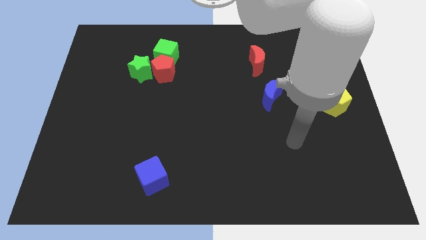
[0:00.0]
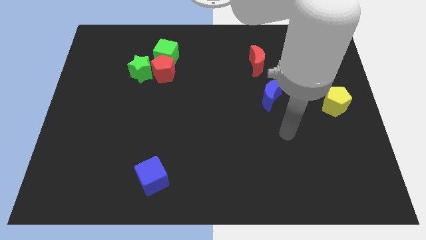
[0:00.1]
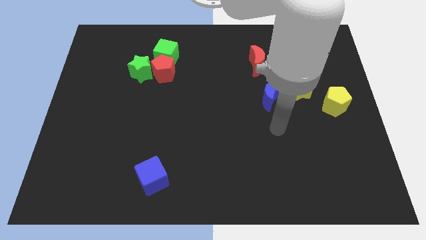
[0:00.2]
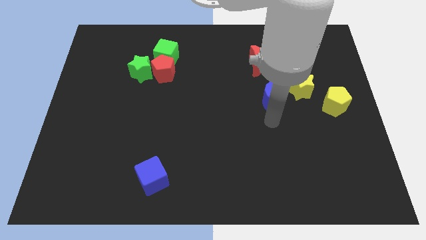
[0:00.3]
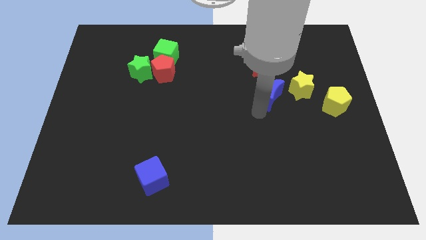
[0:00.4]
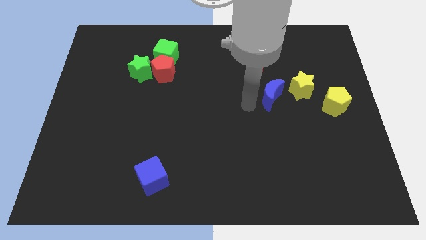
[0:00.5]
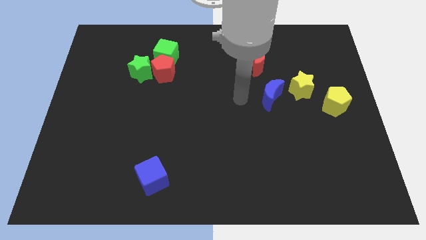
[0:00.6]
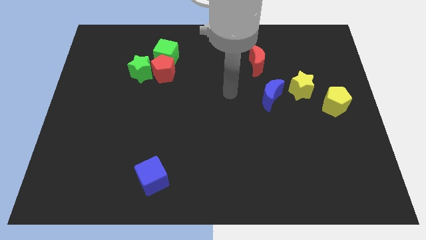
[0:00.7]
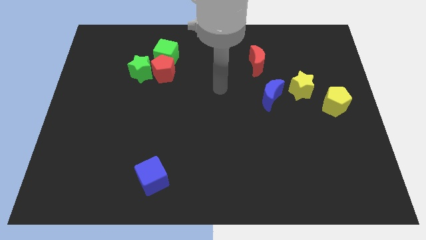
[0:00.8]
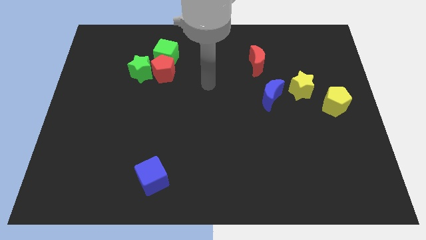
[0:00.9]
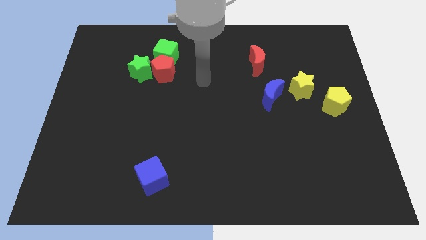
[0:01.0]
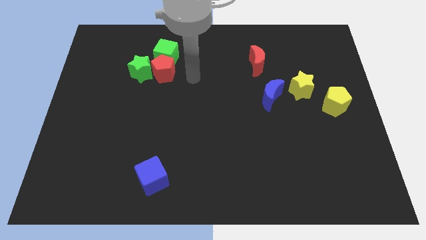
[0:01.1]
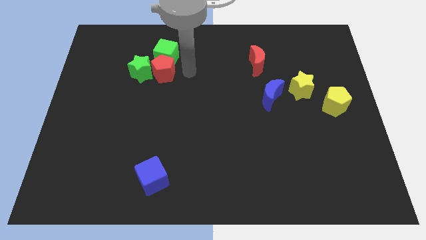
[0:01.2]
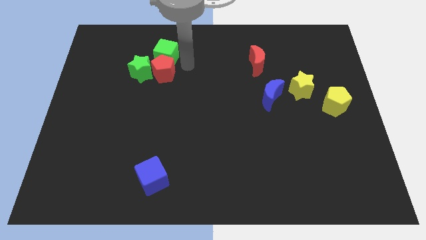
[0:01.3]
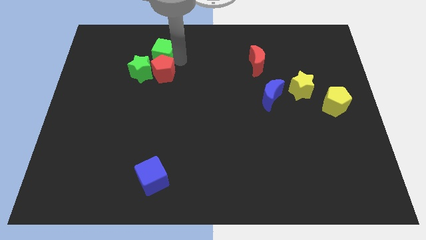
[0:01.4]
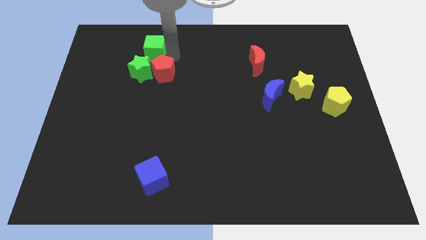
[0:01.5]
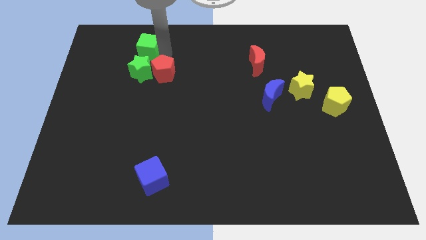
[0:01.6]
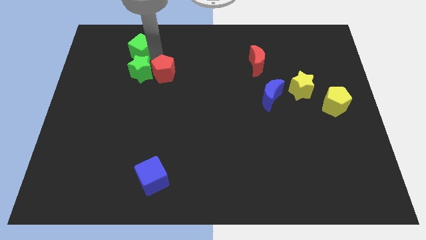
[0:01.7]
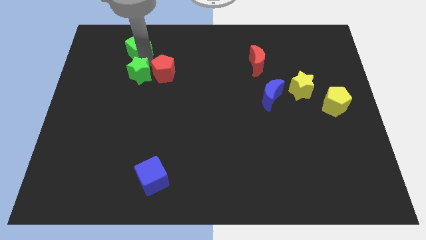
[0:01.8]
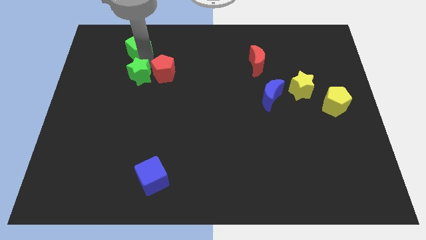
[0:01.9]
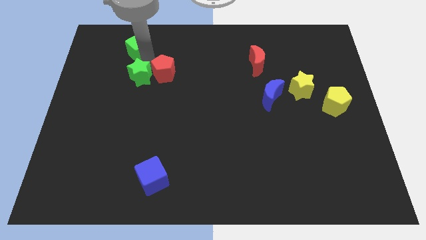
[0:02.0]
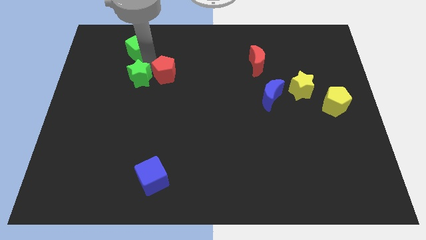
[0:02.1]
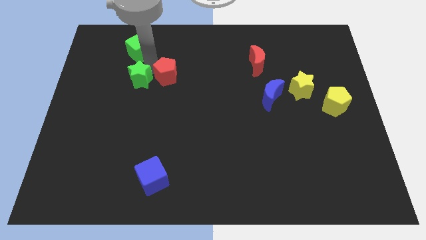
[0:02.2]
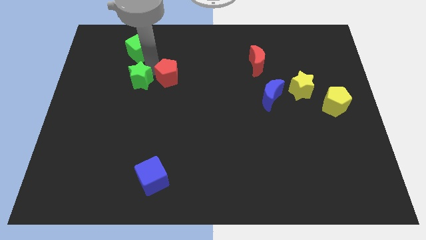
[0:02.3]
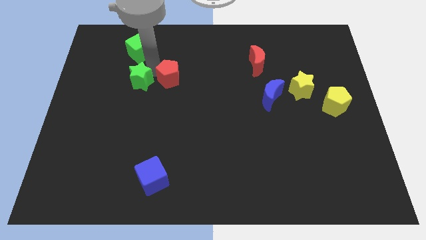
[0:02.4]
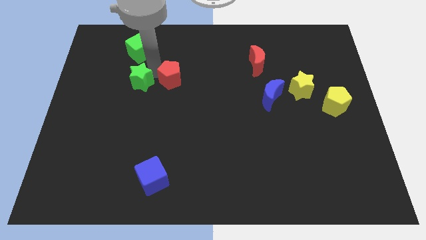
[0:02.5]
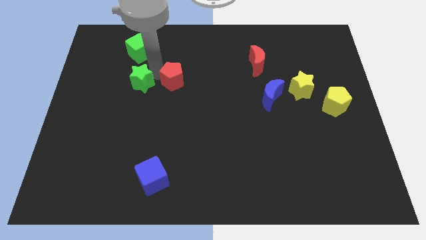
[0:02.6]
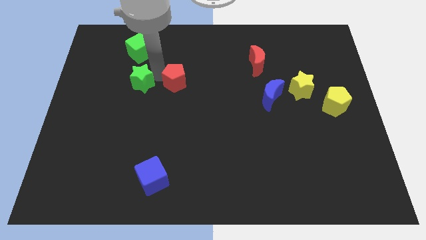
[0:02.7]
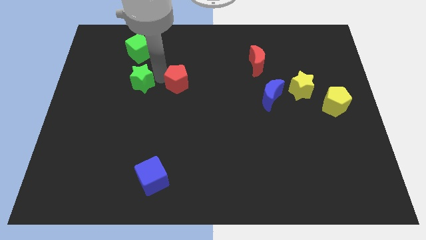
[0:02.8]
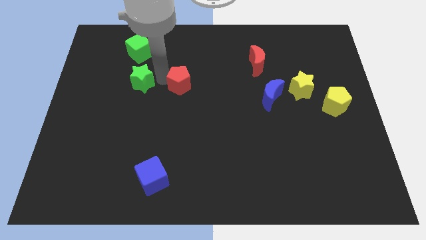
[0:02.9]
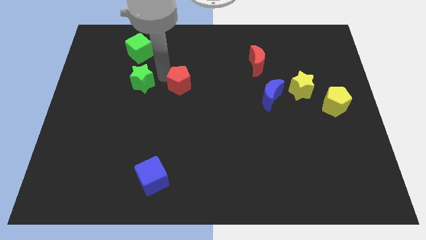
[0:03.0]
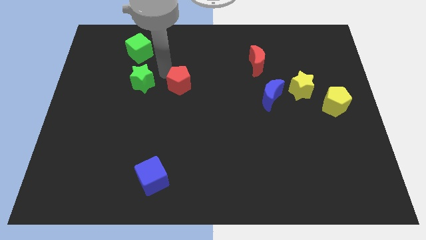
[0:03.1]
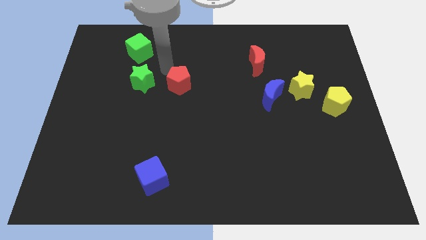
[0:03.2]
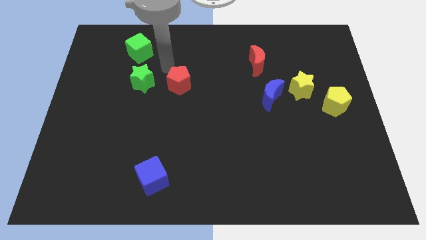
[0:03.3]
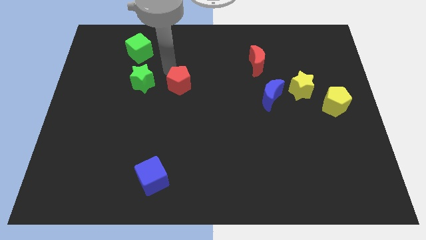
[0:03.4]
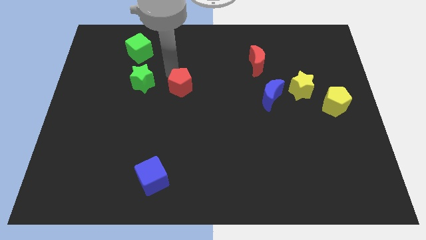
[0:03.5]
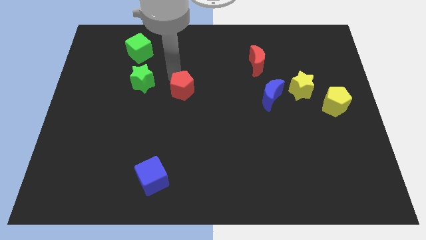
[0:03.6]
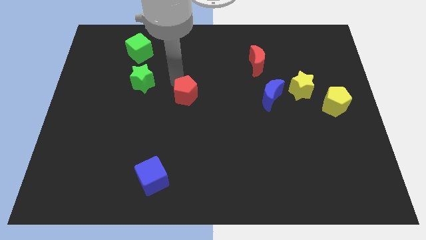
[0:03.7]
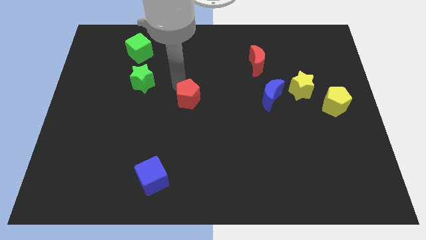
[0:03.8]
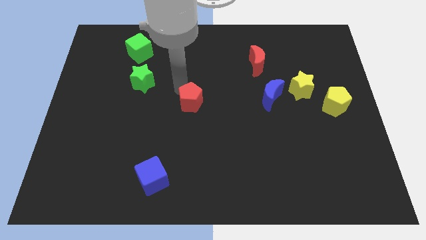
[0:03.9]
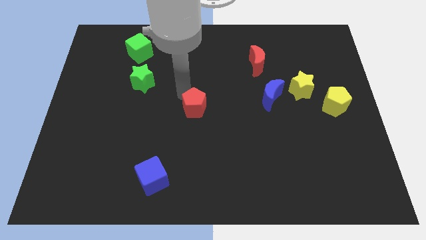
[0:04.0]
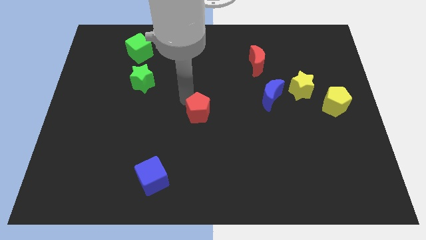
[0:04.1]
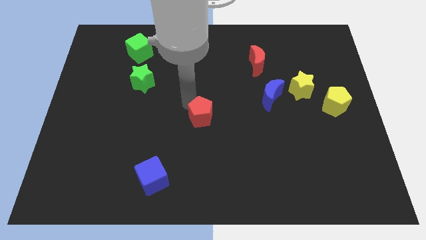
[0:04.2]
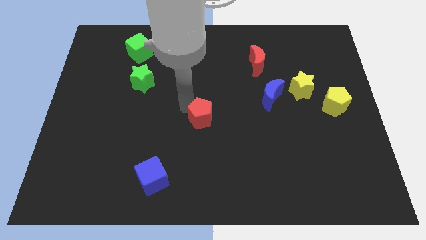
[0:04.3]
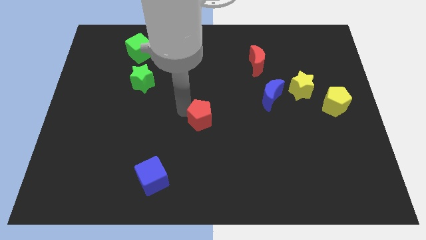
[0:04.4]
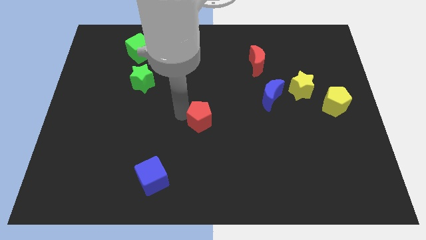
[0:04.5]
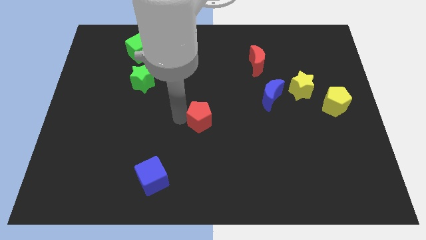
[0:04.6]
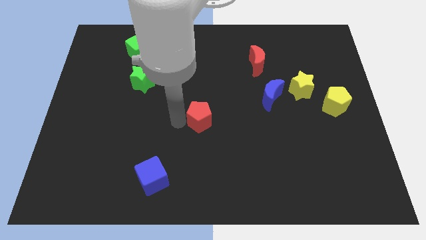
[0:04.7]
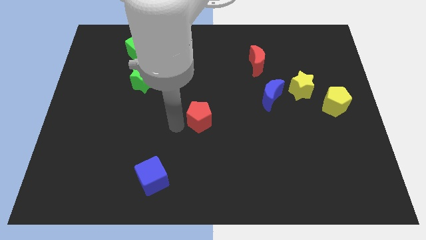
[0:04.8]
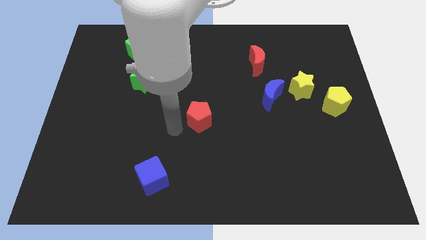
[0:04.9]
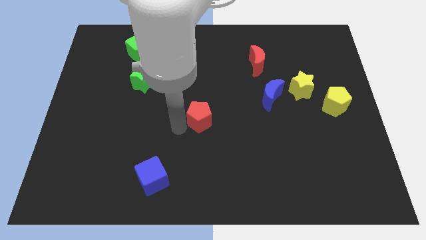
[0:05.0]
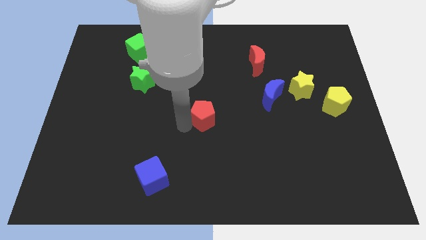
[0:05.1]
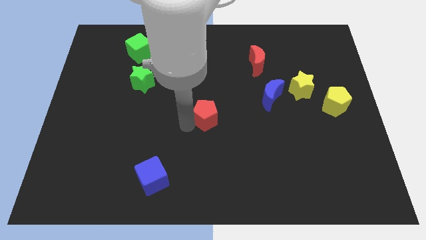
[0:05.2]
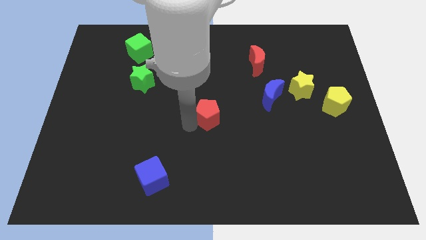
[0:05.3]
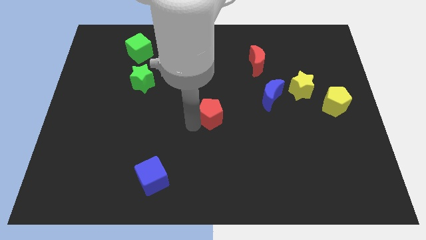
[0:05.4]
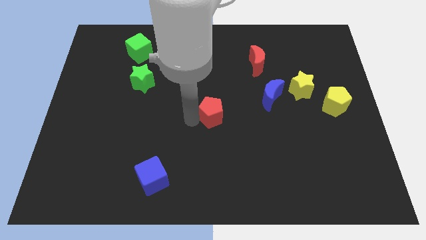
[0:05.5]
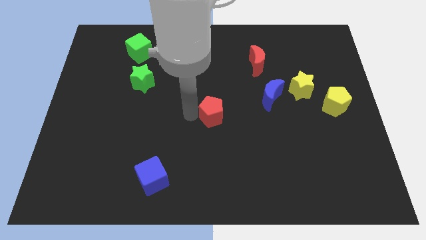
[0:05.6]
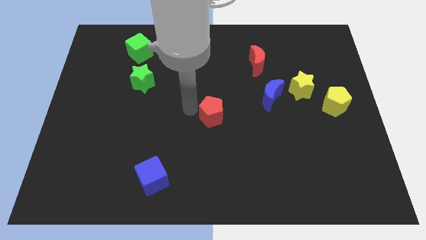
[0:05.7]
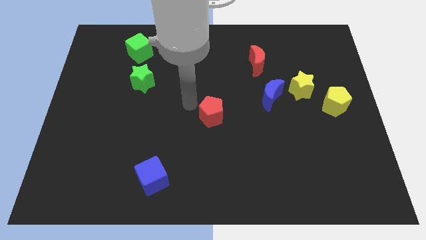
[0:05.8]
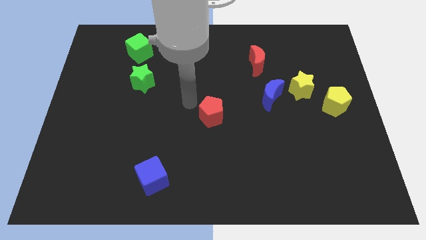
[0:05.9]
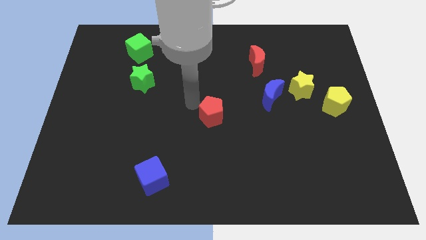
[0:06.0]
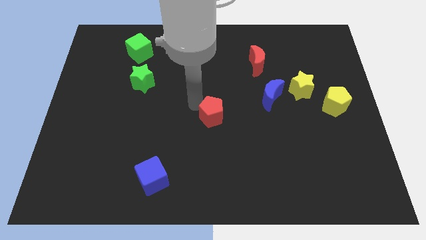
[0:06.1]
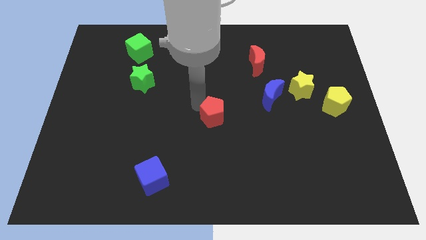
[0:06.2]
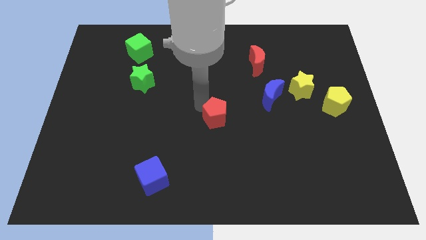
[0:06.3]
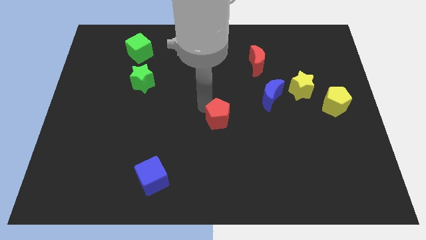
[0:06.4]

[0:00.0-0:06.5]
push the red pentagon downwards and then right

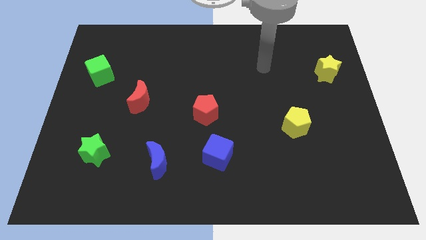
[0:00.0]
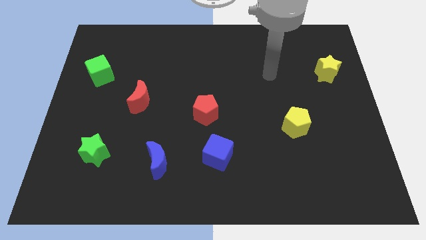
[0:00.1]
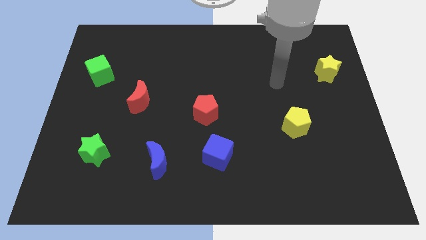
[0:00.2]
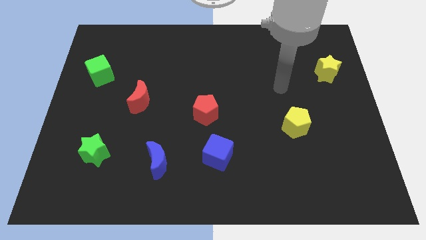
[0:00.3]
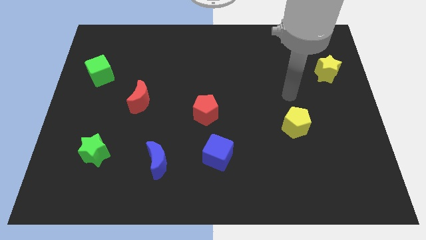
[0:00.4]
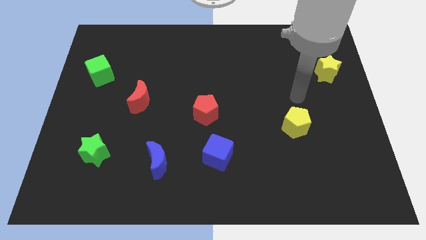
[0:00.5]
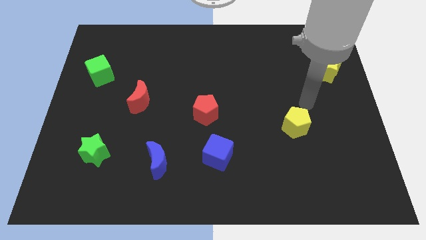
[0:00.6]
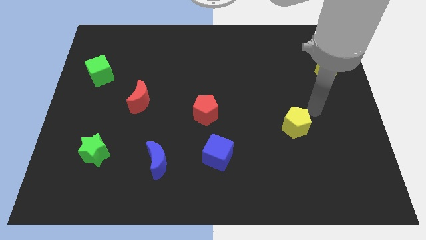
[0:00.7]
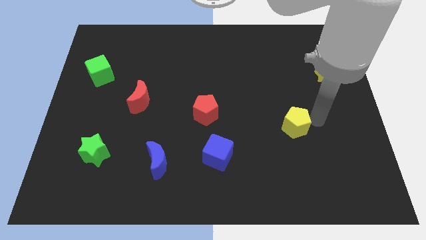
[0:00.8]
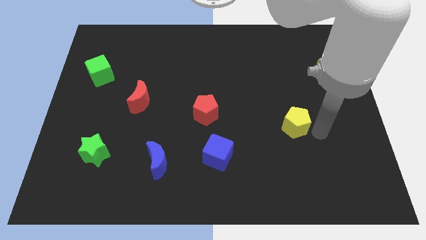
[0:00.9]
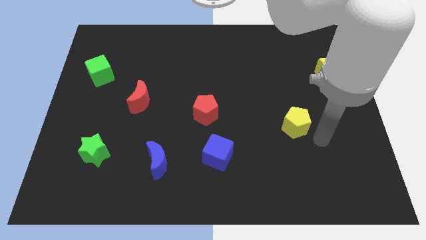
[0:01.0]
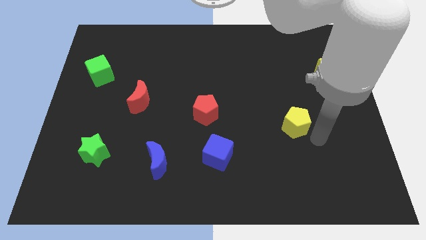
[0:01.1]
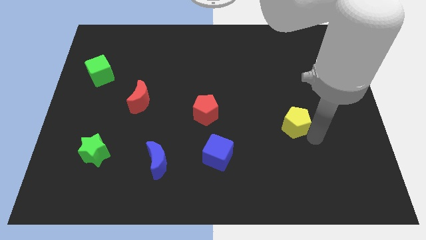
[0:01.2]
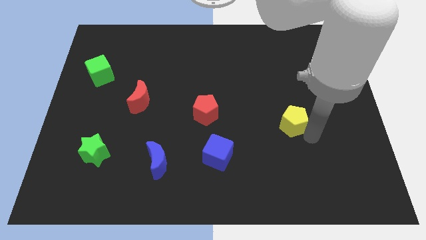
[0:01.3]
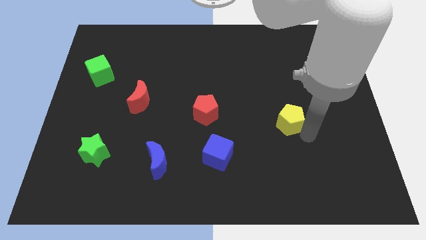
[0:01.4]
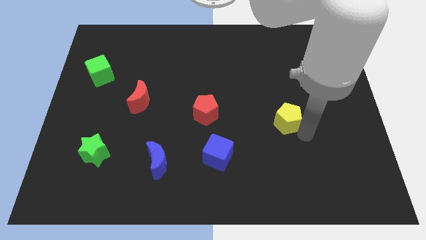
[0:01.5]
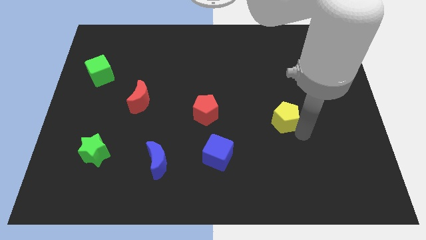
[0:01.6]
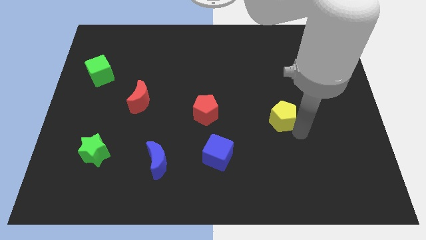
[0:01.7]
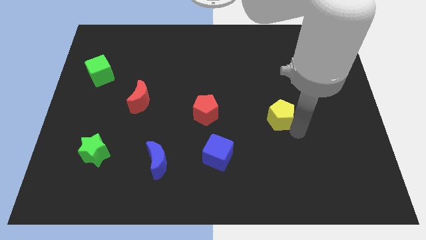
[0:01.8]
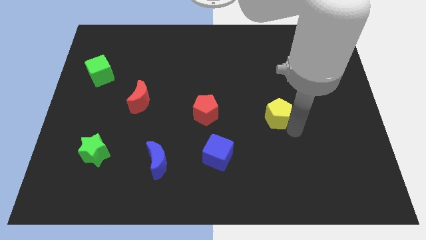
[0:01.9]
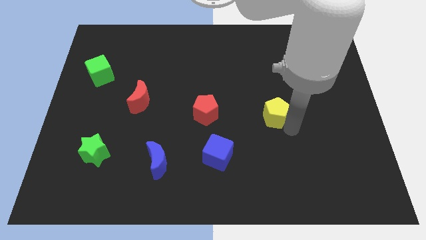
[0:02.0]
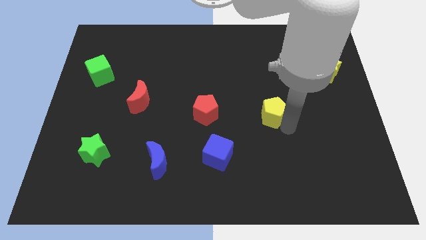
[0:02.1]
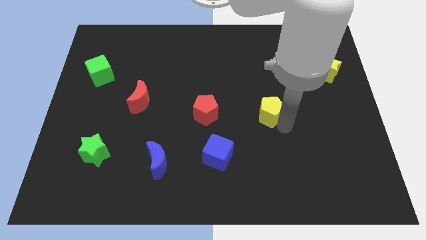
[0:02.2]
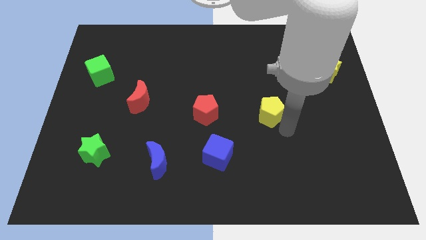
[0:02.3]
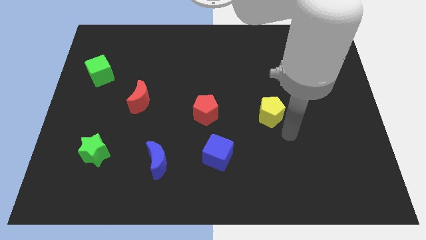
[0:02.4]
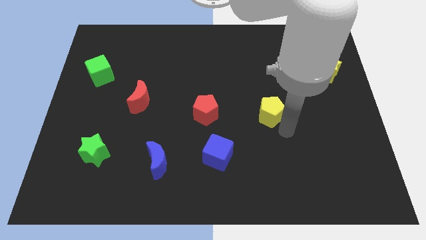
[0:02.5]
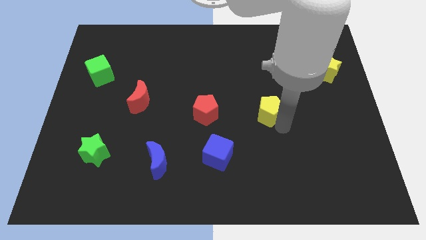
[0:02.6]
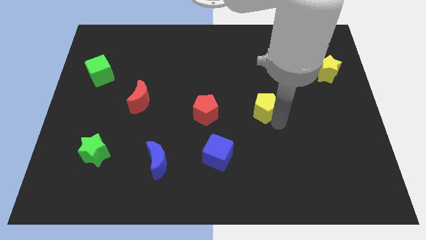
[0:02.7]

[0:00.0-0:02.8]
move the yellow pentagon diagonally up and left slightly
